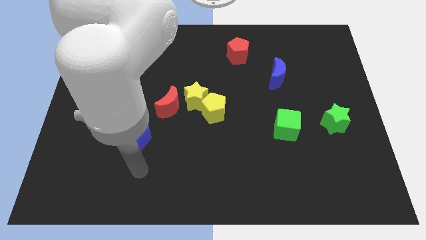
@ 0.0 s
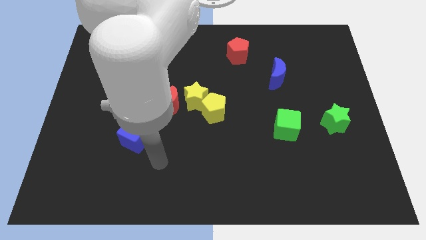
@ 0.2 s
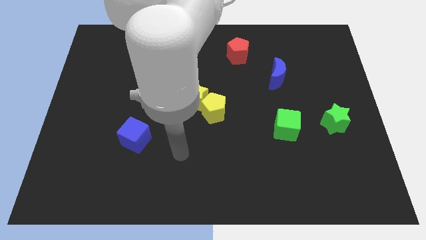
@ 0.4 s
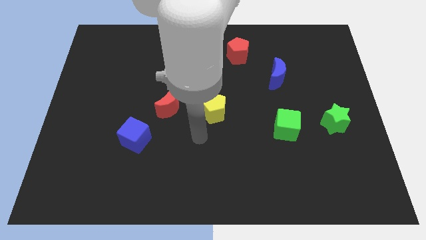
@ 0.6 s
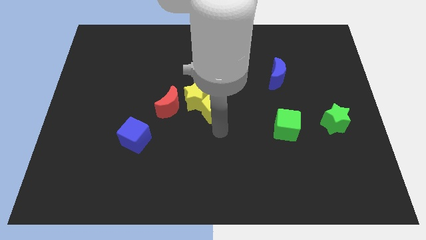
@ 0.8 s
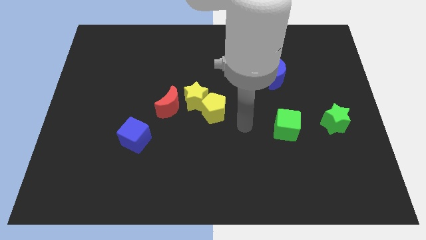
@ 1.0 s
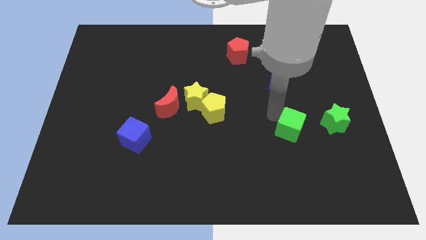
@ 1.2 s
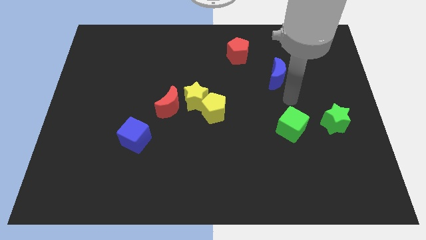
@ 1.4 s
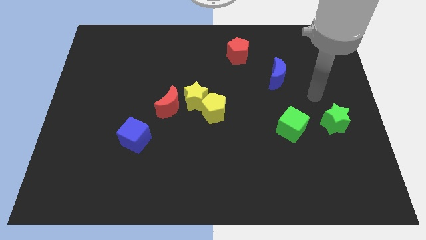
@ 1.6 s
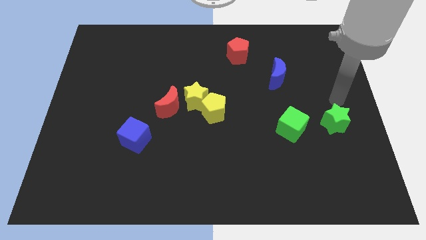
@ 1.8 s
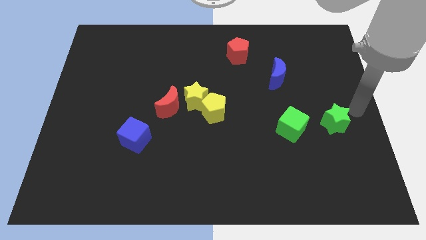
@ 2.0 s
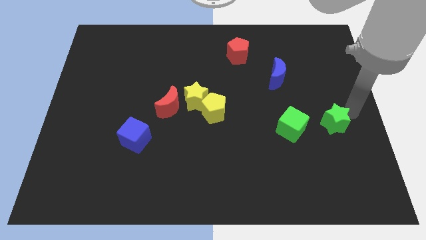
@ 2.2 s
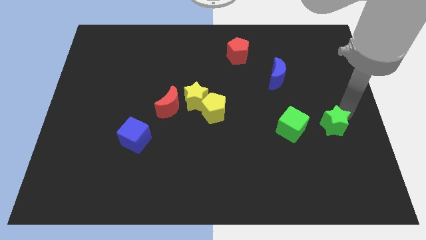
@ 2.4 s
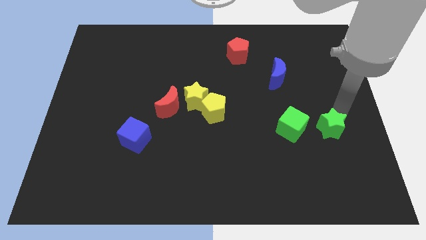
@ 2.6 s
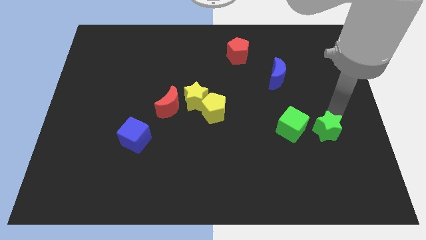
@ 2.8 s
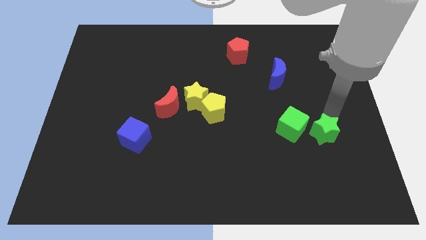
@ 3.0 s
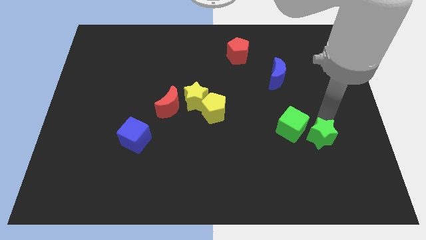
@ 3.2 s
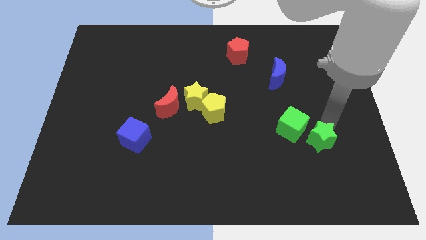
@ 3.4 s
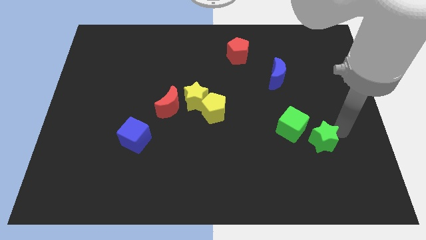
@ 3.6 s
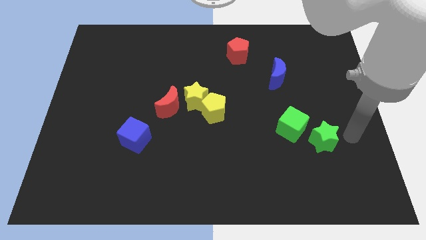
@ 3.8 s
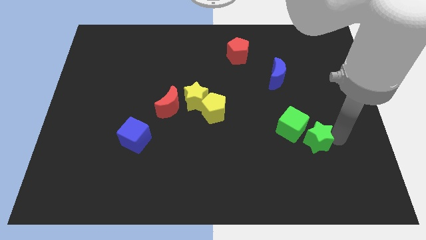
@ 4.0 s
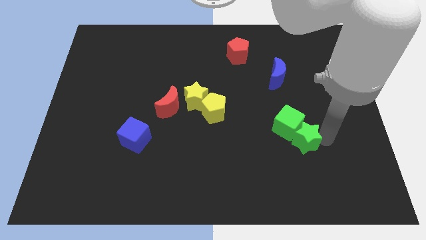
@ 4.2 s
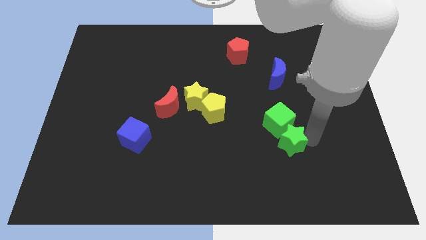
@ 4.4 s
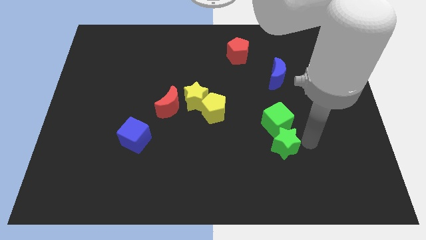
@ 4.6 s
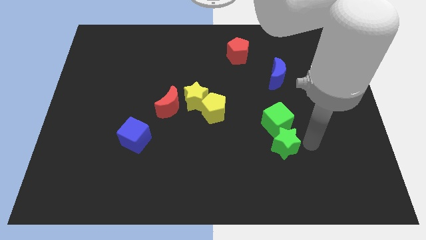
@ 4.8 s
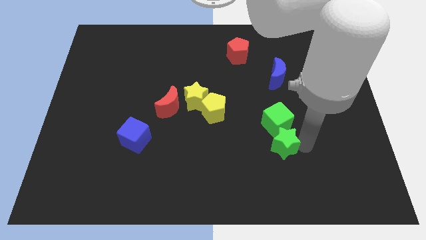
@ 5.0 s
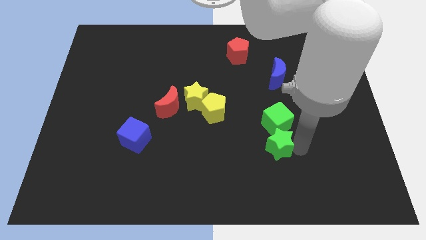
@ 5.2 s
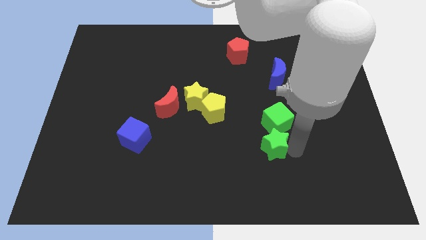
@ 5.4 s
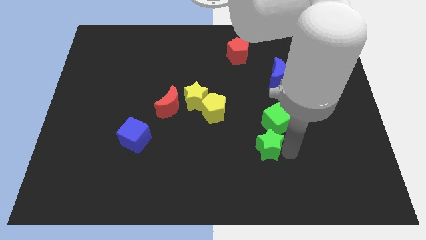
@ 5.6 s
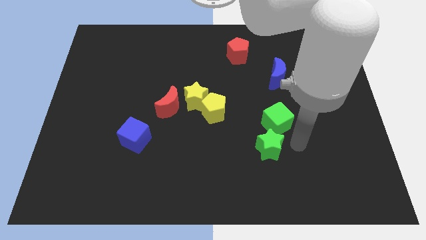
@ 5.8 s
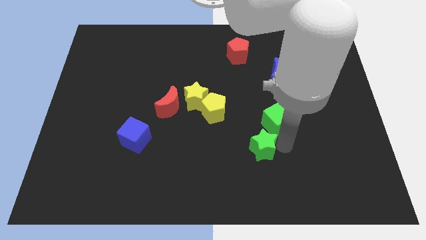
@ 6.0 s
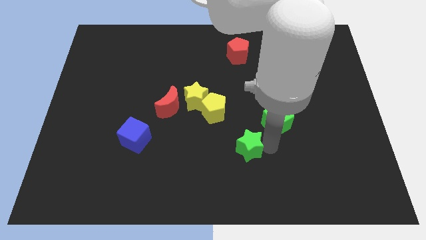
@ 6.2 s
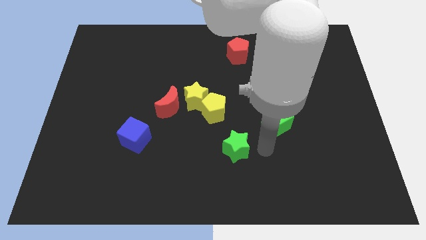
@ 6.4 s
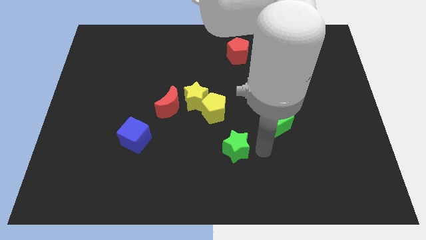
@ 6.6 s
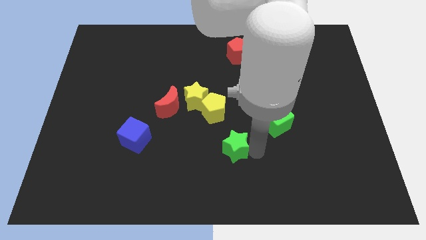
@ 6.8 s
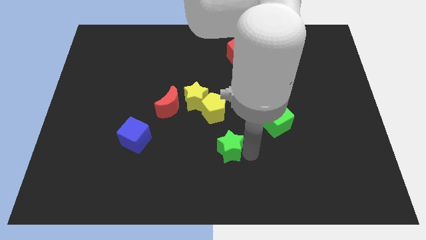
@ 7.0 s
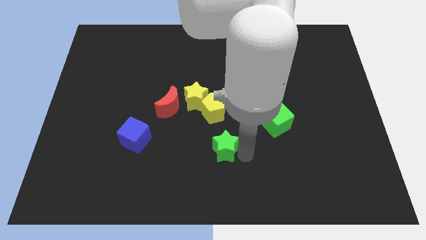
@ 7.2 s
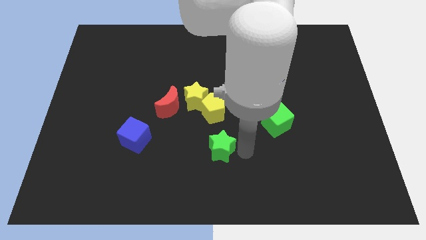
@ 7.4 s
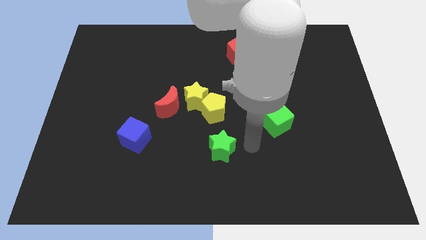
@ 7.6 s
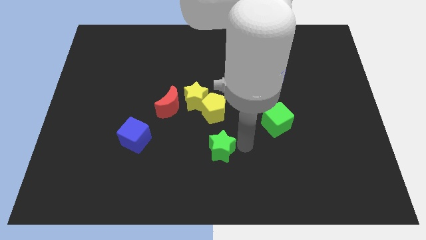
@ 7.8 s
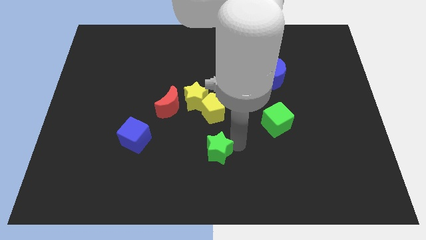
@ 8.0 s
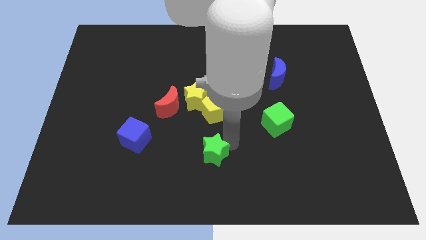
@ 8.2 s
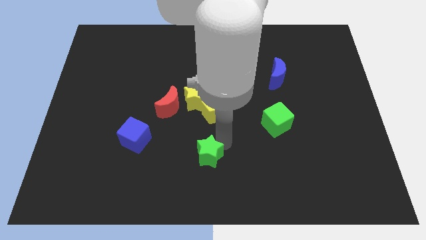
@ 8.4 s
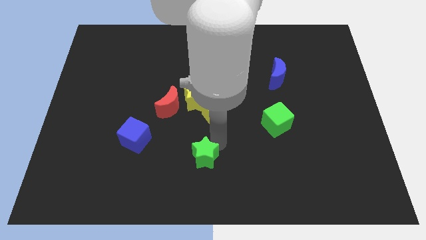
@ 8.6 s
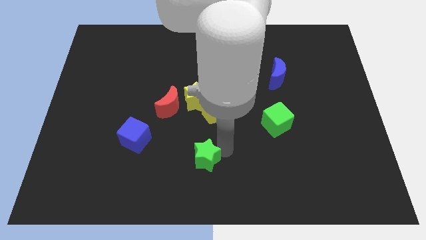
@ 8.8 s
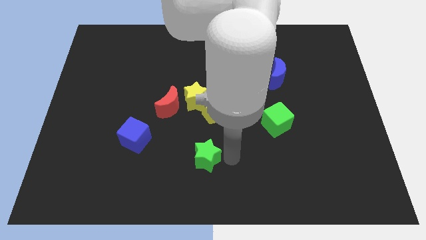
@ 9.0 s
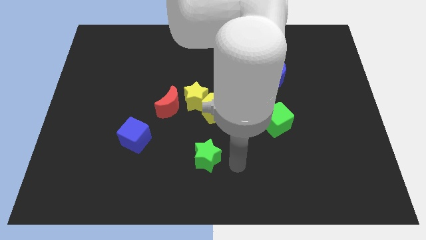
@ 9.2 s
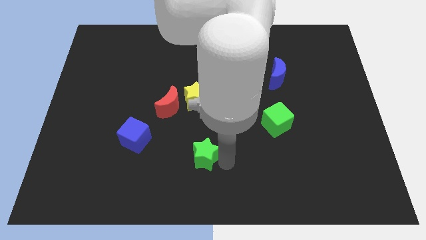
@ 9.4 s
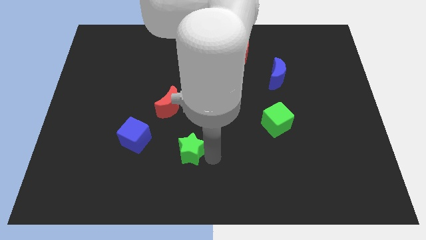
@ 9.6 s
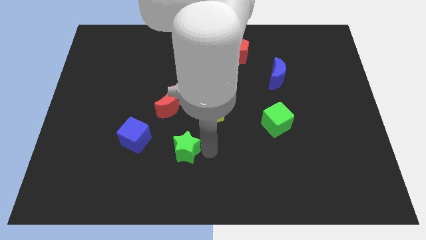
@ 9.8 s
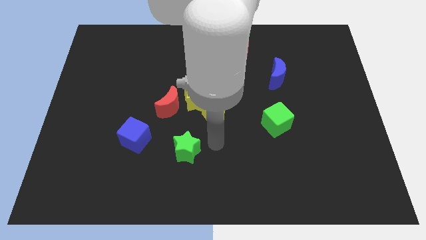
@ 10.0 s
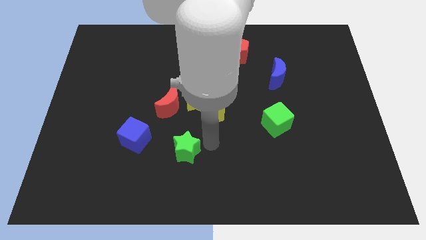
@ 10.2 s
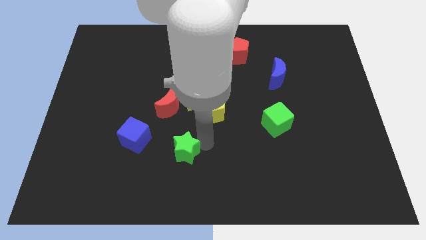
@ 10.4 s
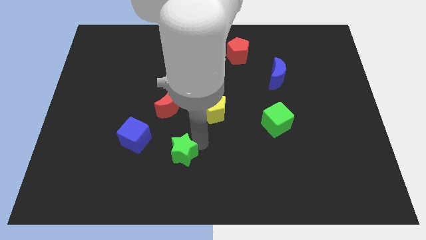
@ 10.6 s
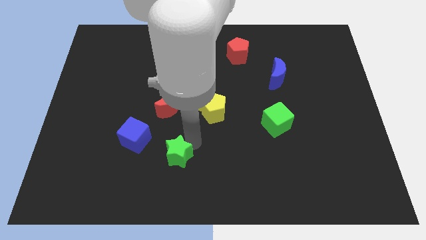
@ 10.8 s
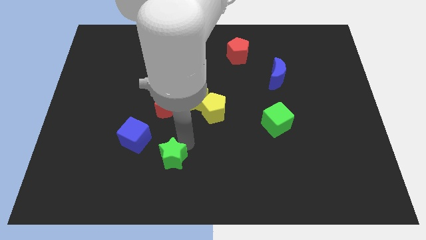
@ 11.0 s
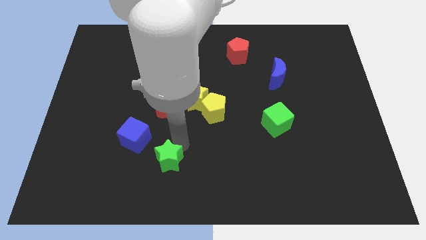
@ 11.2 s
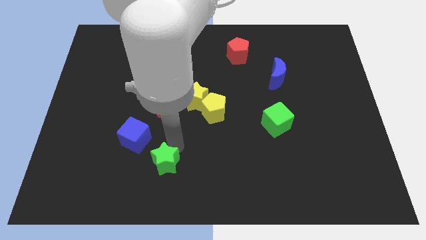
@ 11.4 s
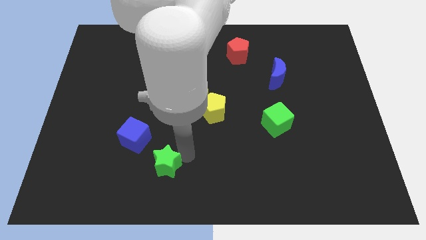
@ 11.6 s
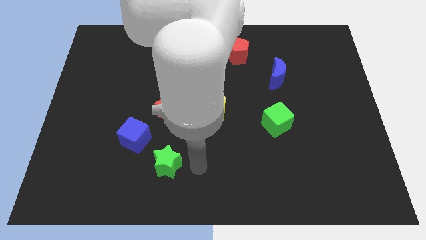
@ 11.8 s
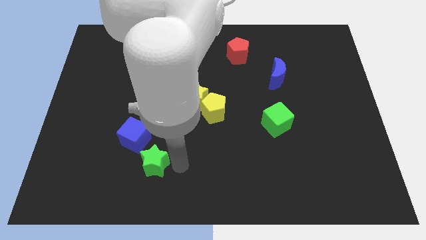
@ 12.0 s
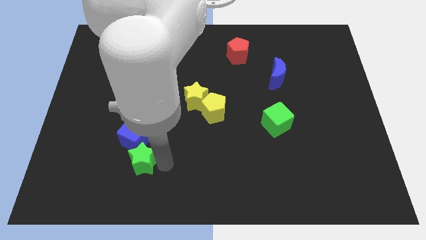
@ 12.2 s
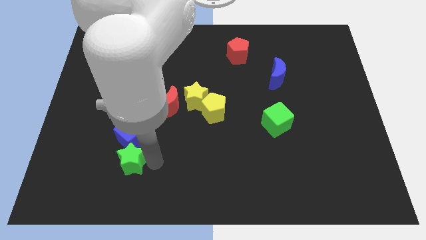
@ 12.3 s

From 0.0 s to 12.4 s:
put the green star to the bottom left side of the blue cube

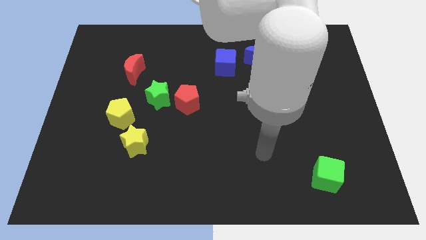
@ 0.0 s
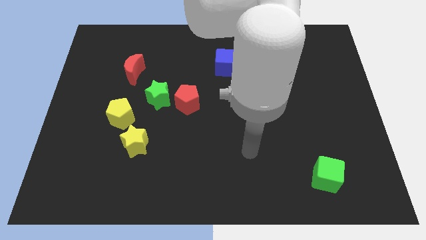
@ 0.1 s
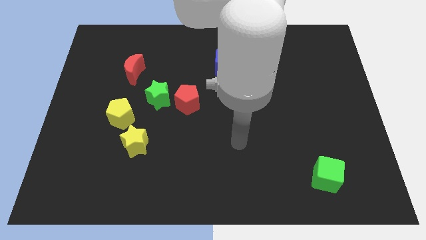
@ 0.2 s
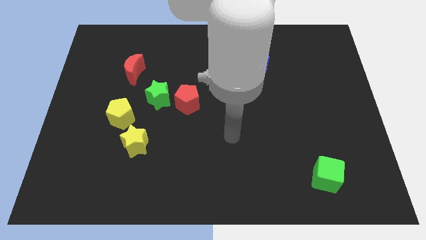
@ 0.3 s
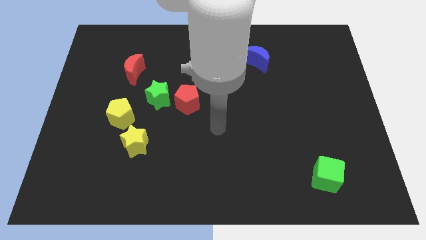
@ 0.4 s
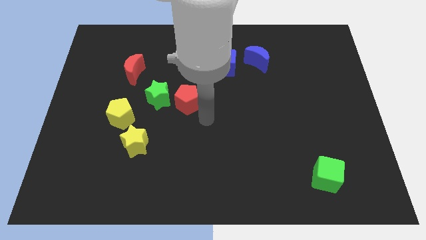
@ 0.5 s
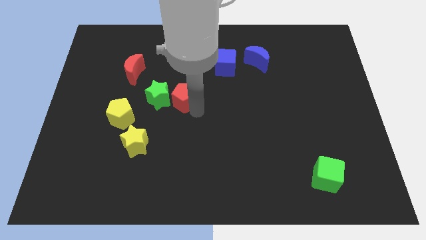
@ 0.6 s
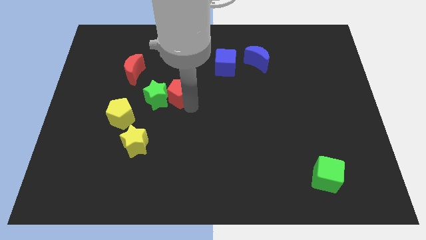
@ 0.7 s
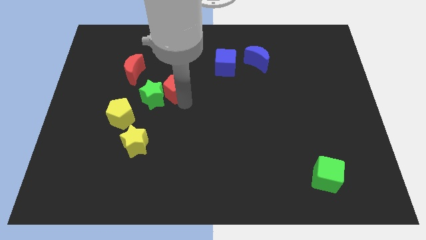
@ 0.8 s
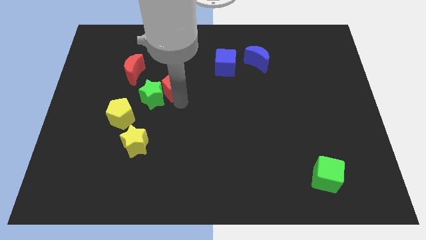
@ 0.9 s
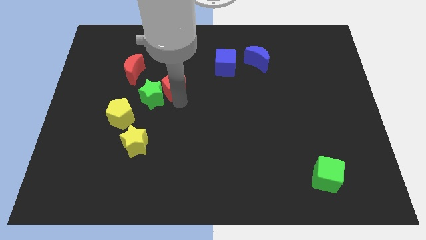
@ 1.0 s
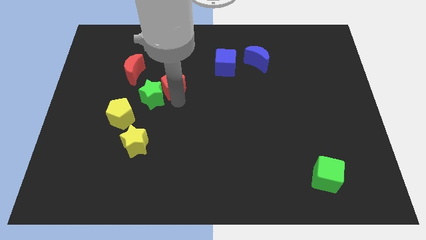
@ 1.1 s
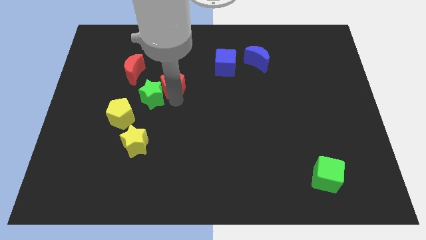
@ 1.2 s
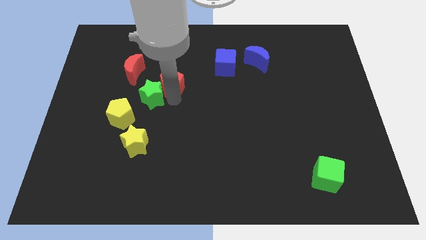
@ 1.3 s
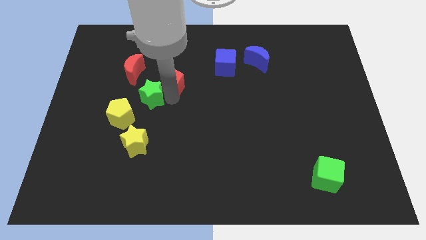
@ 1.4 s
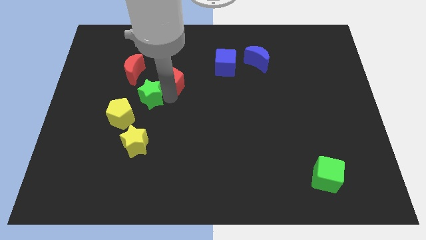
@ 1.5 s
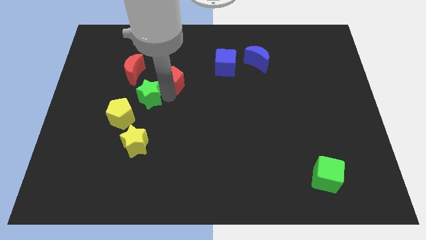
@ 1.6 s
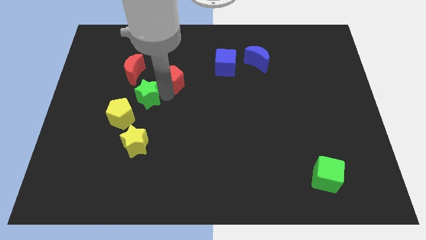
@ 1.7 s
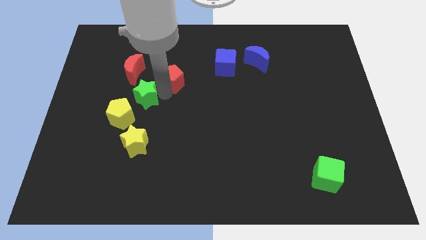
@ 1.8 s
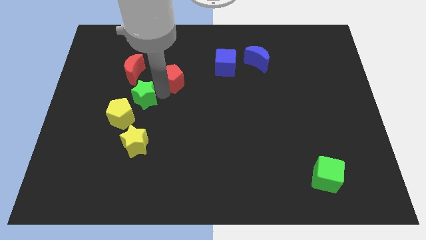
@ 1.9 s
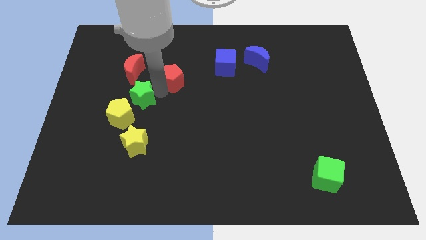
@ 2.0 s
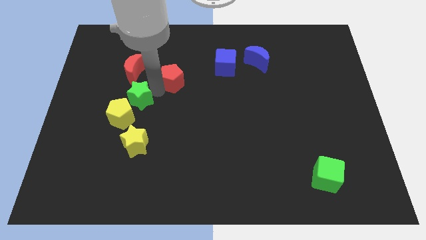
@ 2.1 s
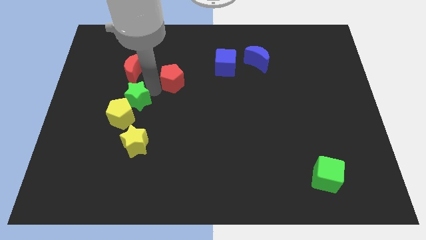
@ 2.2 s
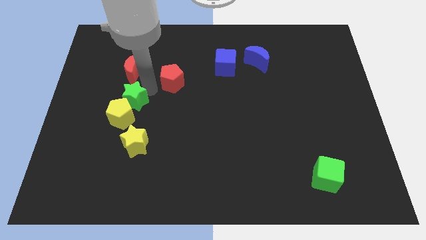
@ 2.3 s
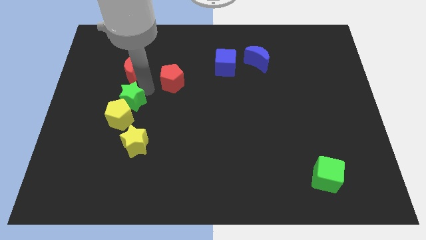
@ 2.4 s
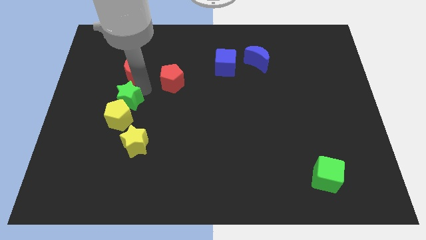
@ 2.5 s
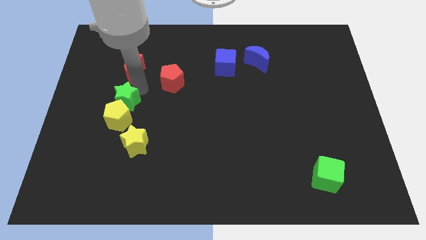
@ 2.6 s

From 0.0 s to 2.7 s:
slide the green star to the top left side of the yellow pentagon
